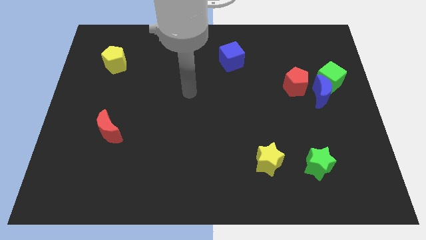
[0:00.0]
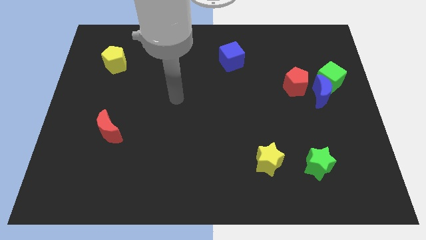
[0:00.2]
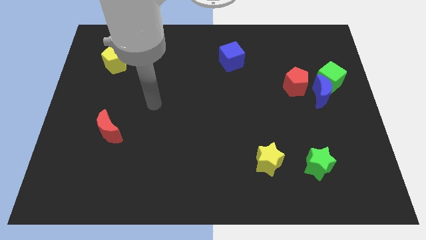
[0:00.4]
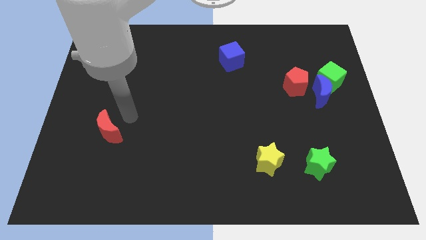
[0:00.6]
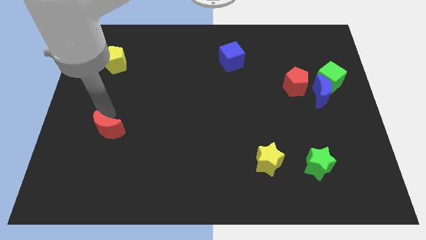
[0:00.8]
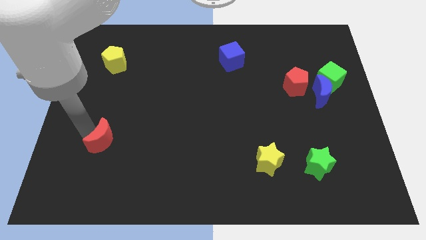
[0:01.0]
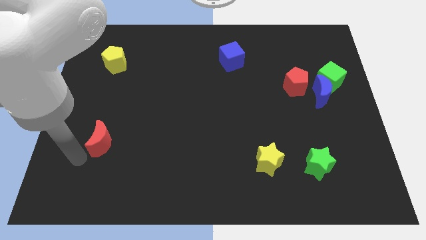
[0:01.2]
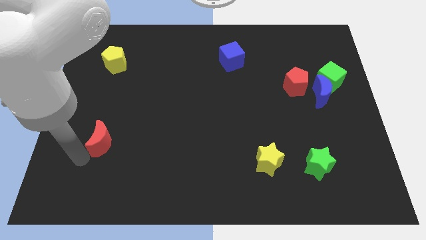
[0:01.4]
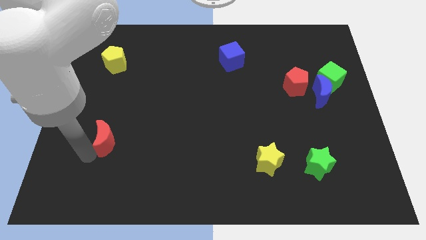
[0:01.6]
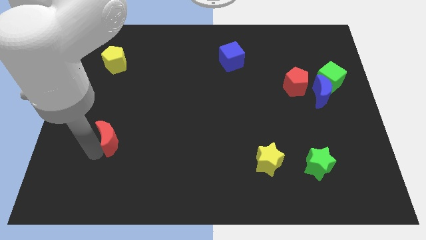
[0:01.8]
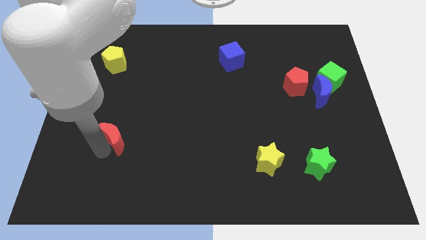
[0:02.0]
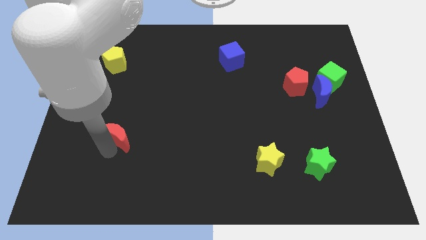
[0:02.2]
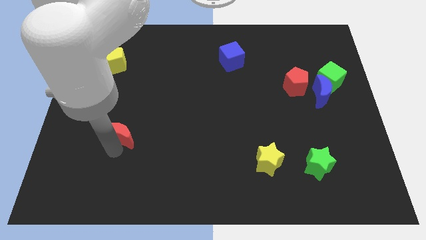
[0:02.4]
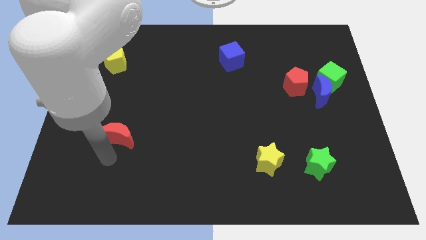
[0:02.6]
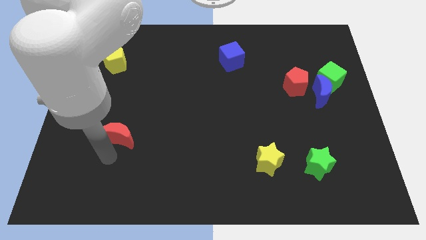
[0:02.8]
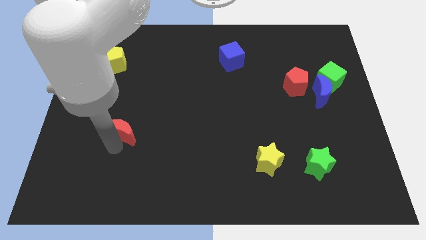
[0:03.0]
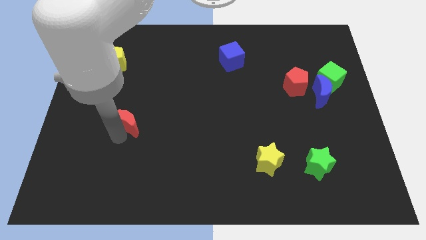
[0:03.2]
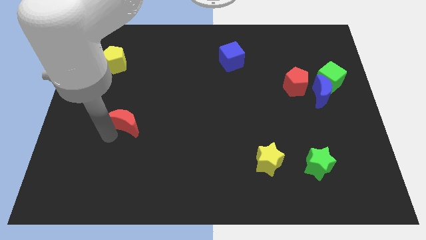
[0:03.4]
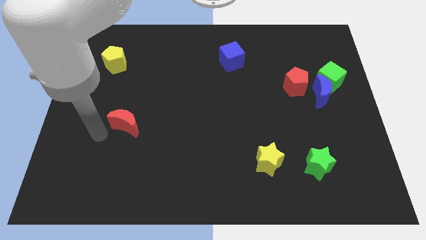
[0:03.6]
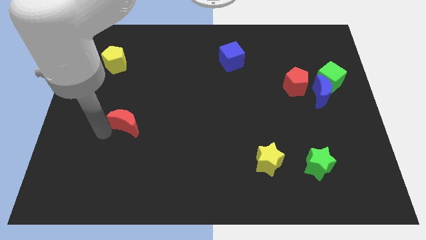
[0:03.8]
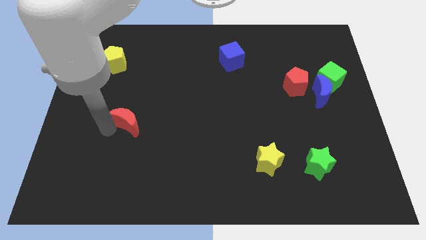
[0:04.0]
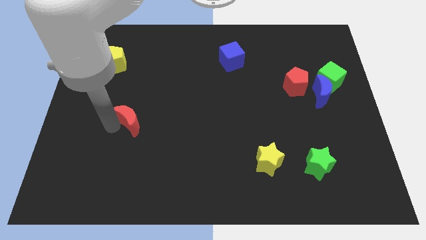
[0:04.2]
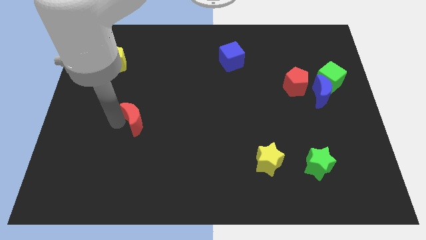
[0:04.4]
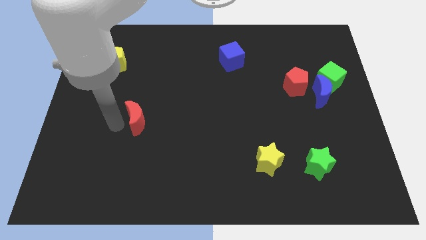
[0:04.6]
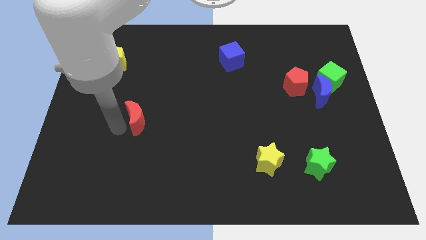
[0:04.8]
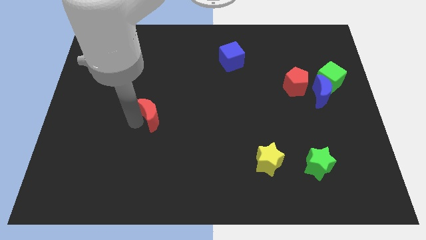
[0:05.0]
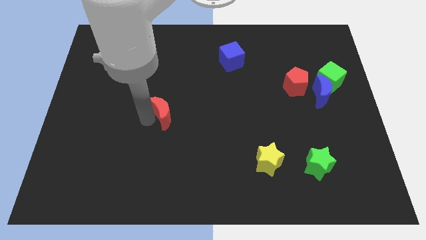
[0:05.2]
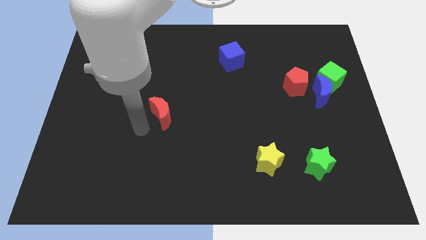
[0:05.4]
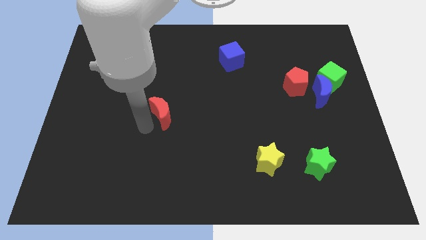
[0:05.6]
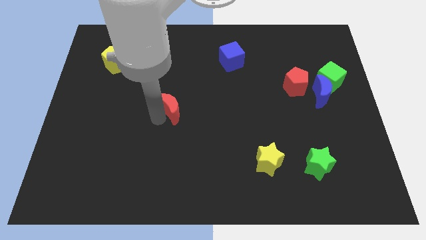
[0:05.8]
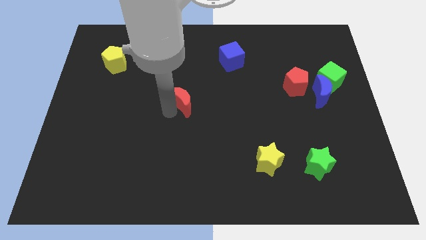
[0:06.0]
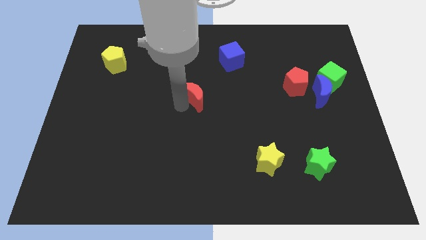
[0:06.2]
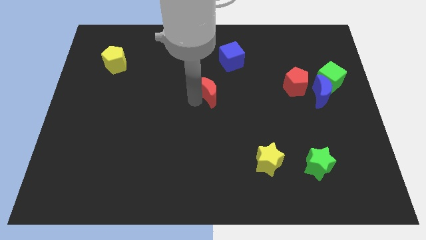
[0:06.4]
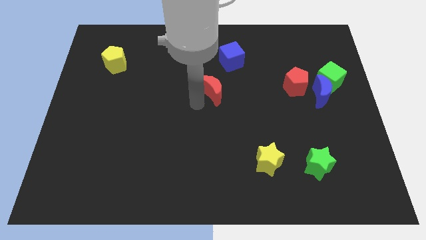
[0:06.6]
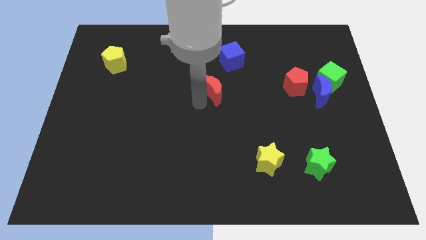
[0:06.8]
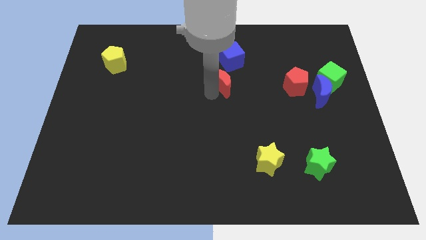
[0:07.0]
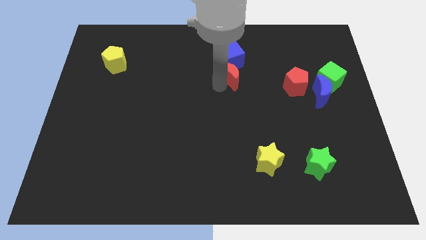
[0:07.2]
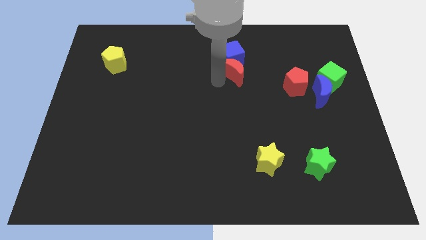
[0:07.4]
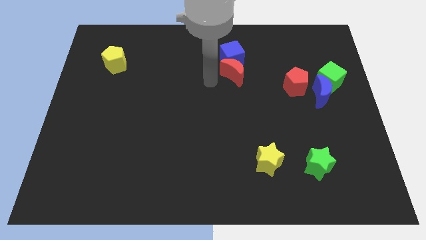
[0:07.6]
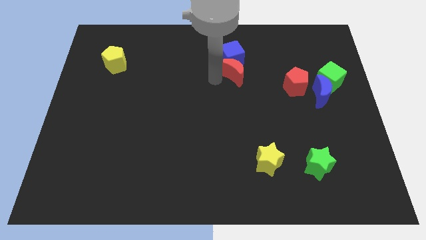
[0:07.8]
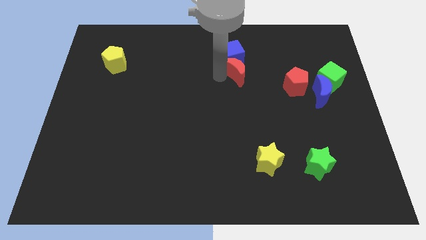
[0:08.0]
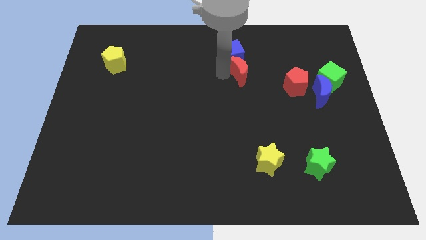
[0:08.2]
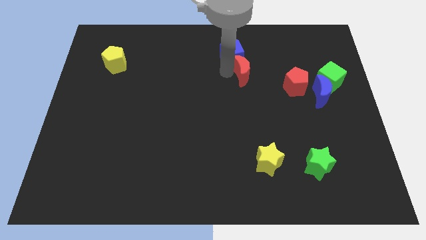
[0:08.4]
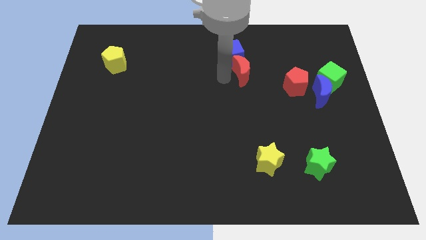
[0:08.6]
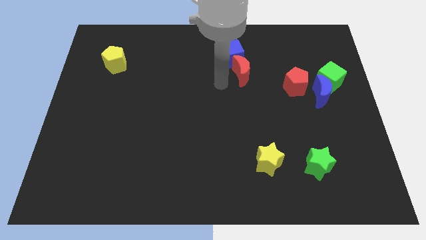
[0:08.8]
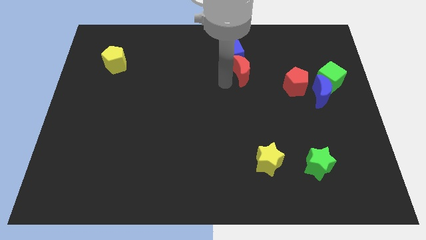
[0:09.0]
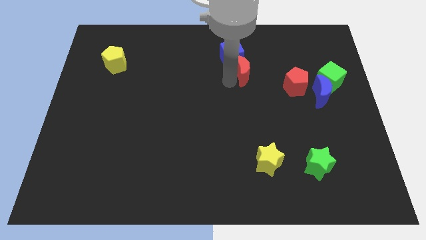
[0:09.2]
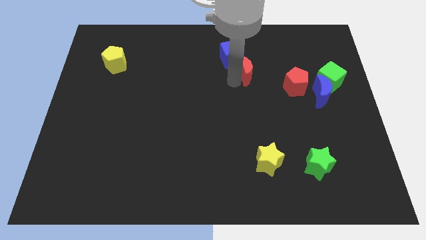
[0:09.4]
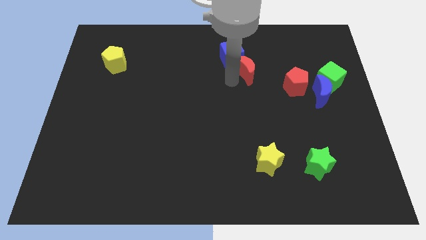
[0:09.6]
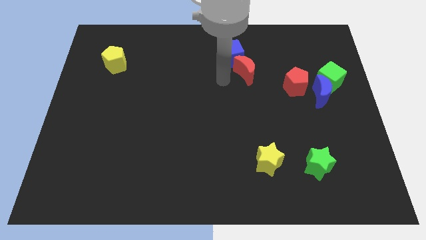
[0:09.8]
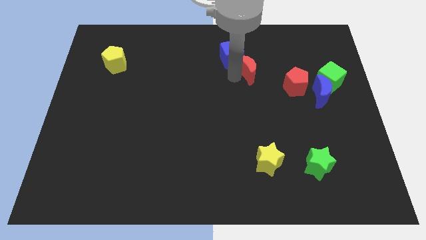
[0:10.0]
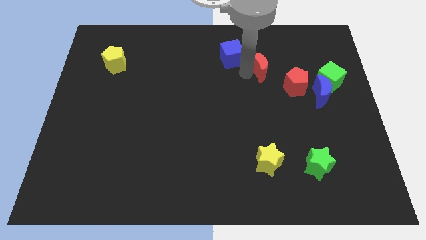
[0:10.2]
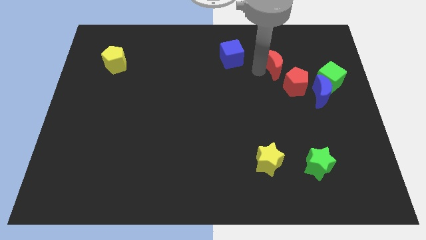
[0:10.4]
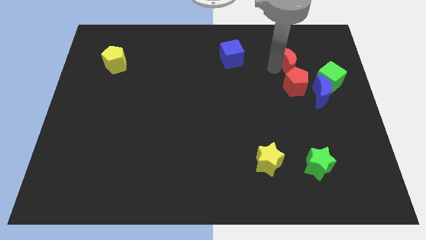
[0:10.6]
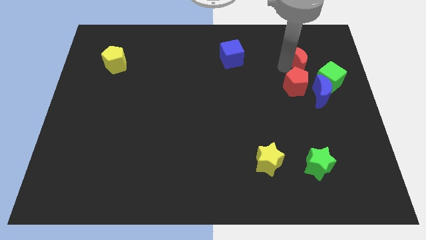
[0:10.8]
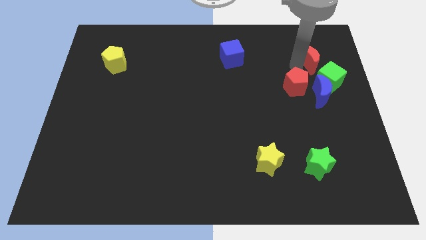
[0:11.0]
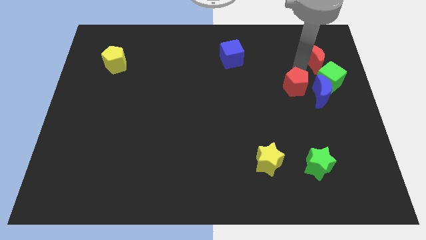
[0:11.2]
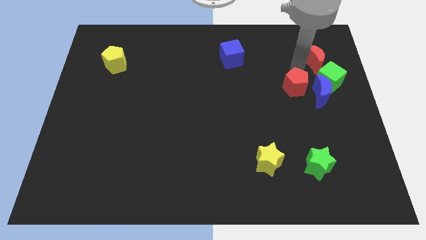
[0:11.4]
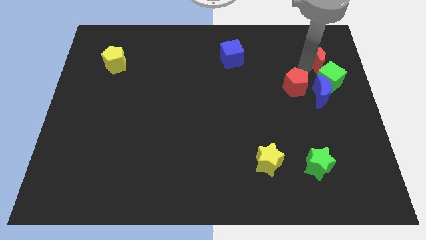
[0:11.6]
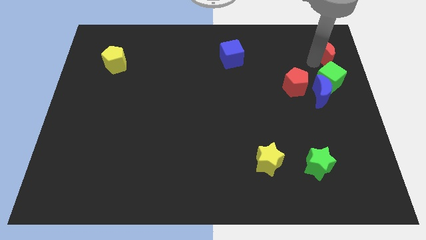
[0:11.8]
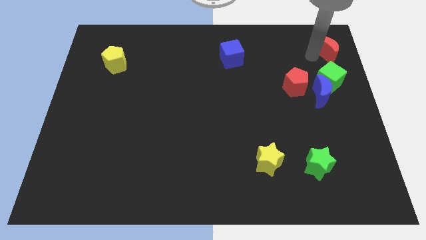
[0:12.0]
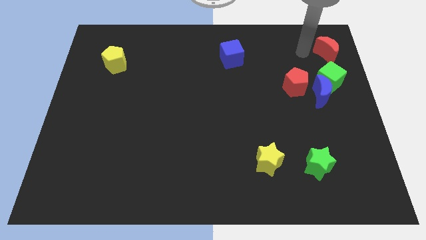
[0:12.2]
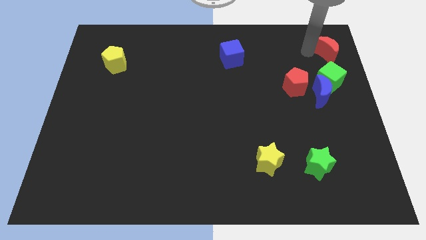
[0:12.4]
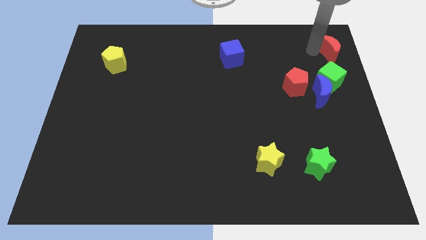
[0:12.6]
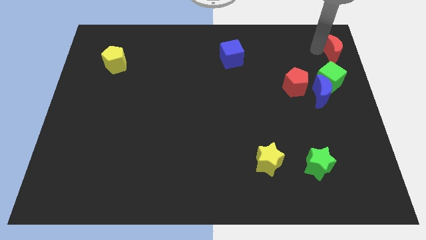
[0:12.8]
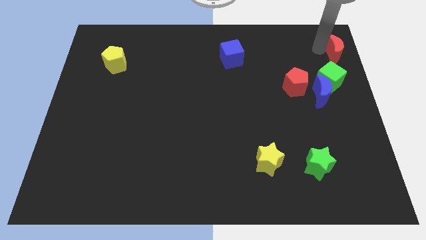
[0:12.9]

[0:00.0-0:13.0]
push the red moon to the top right corner
